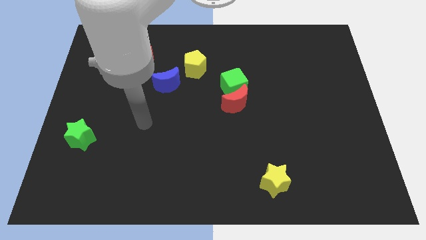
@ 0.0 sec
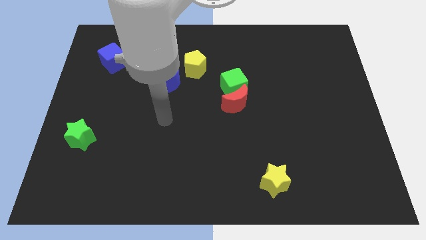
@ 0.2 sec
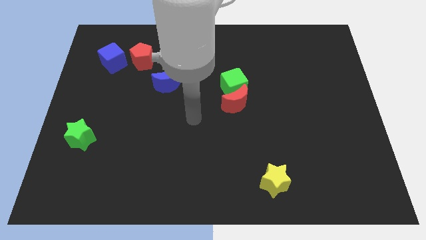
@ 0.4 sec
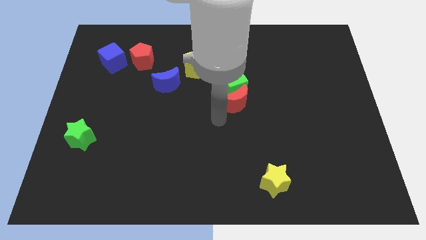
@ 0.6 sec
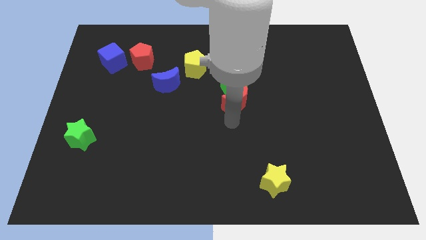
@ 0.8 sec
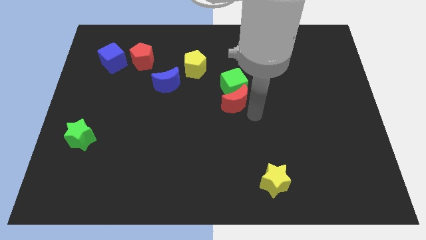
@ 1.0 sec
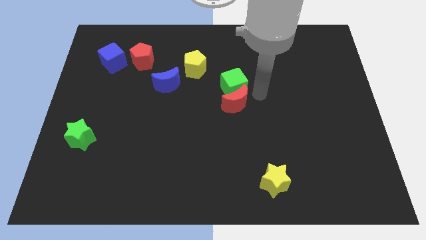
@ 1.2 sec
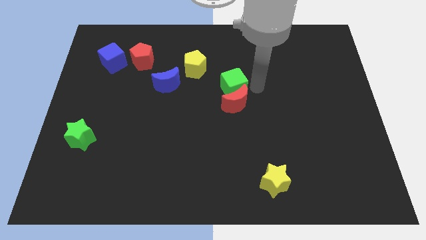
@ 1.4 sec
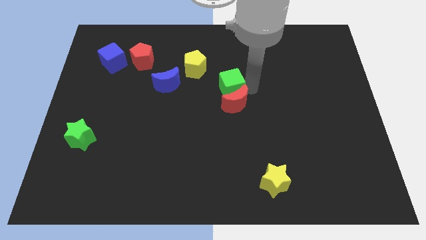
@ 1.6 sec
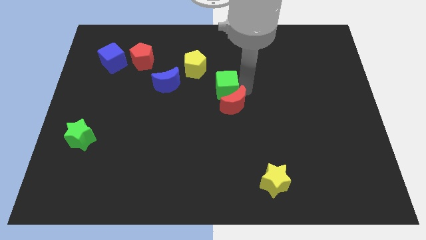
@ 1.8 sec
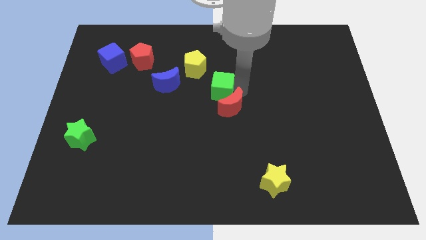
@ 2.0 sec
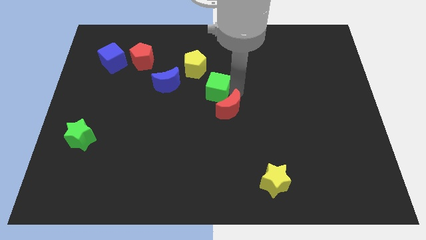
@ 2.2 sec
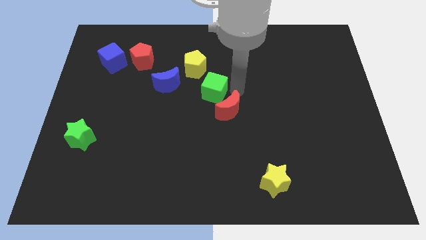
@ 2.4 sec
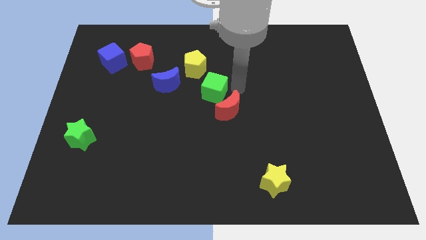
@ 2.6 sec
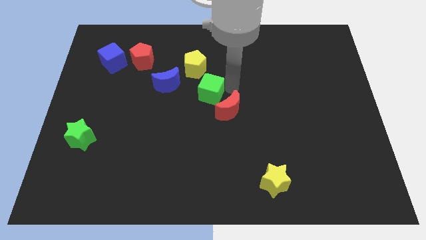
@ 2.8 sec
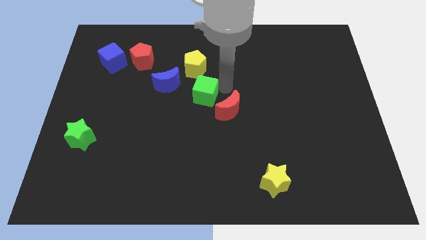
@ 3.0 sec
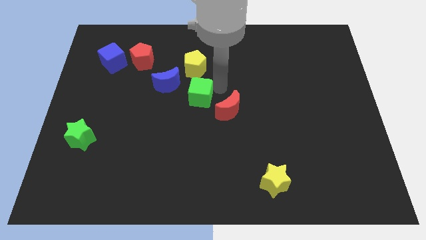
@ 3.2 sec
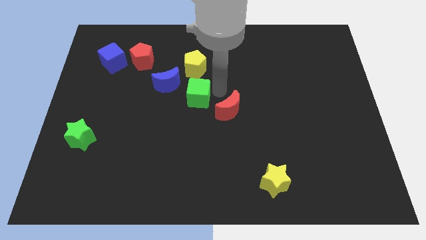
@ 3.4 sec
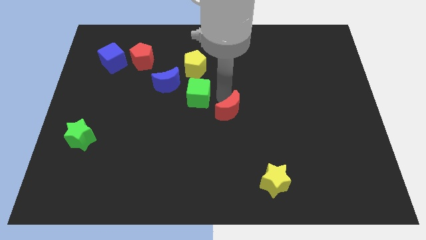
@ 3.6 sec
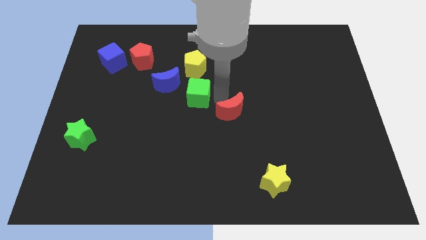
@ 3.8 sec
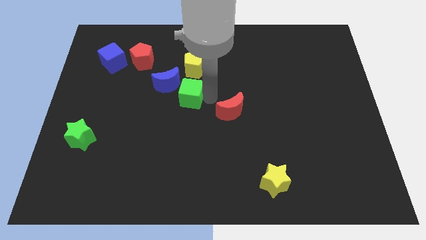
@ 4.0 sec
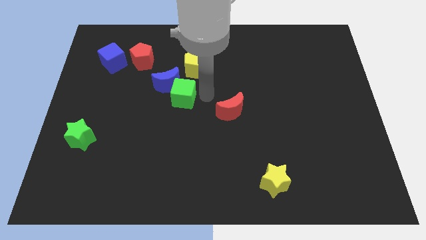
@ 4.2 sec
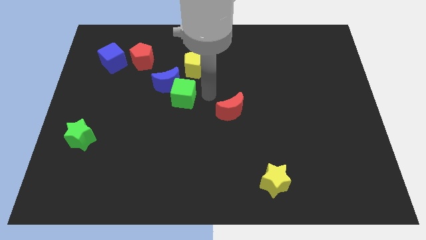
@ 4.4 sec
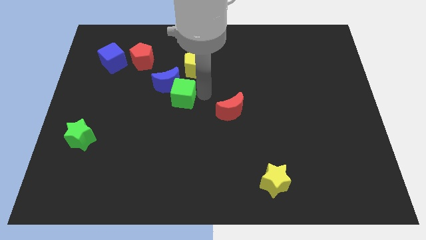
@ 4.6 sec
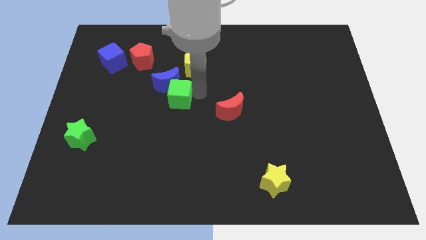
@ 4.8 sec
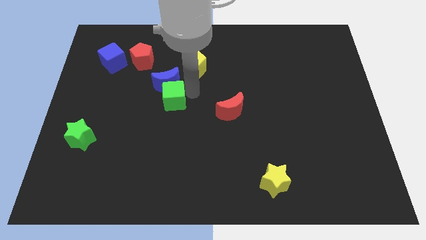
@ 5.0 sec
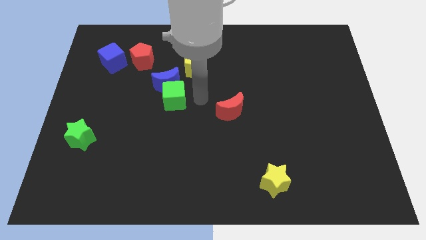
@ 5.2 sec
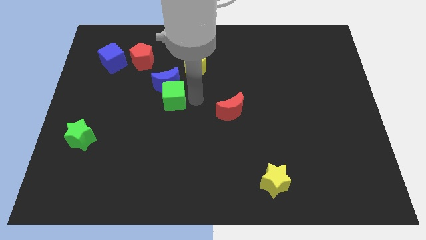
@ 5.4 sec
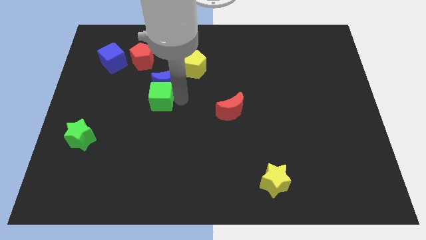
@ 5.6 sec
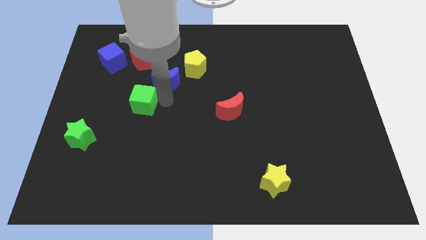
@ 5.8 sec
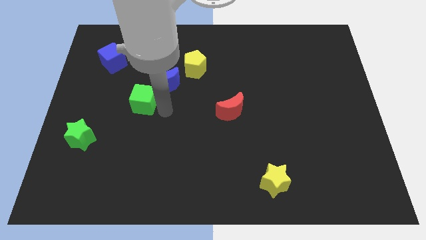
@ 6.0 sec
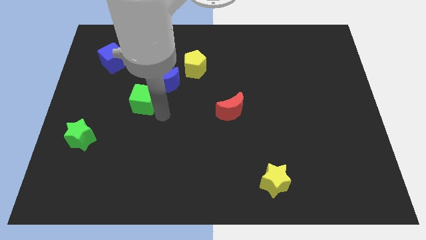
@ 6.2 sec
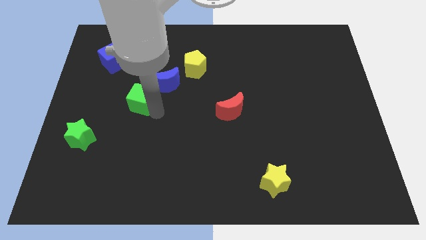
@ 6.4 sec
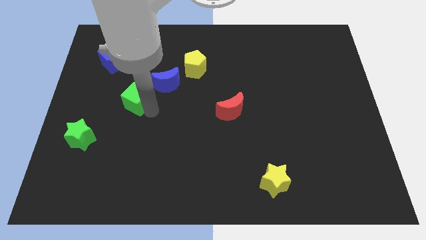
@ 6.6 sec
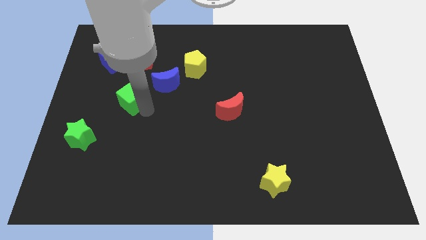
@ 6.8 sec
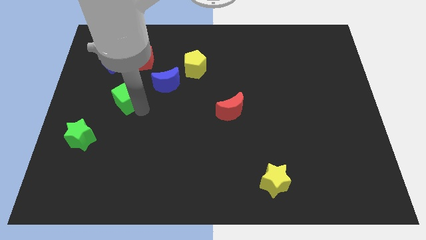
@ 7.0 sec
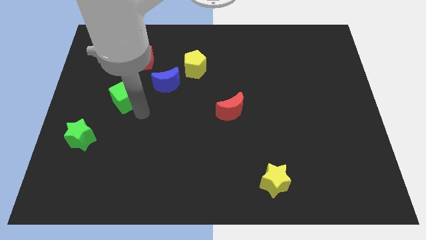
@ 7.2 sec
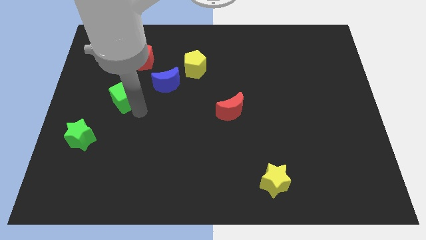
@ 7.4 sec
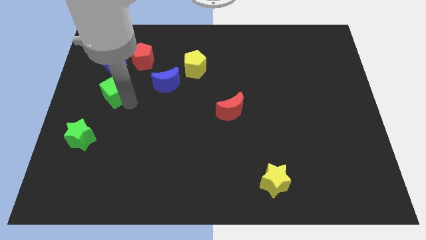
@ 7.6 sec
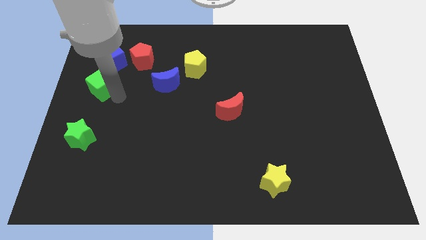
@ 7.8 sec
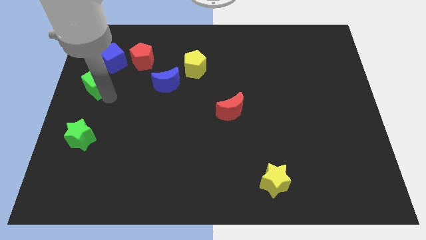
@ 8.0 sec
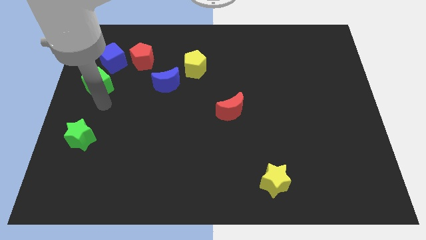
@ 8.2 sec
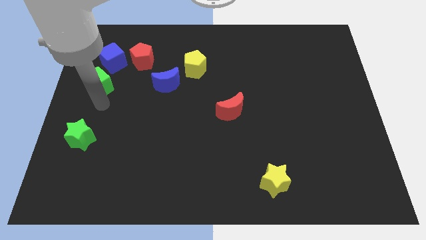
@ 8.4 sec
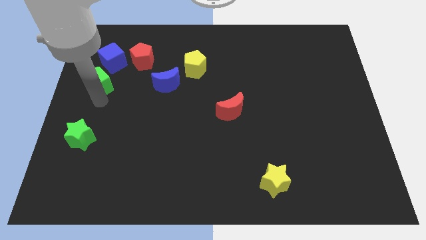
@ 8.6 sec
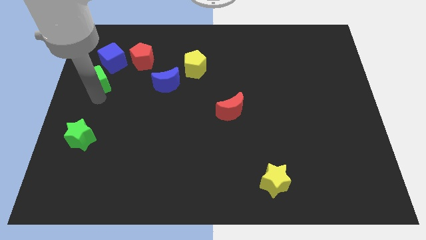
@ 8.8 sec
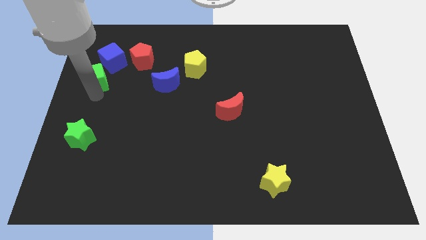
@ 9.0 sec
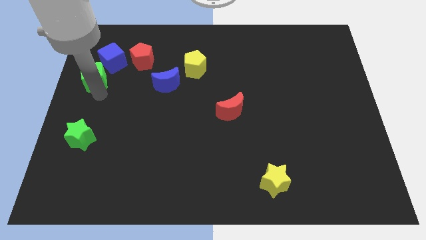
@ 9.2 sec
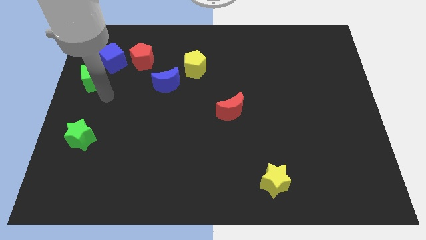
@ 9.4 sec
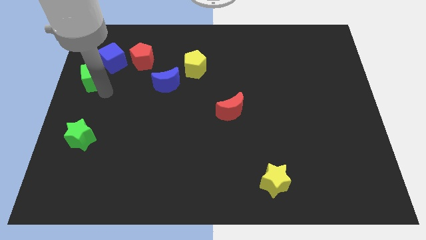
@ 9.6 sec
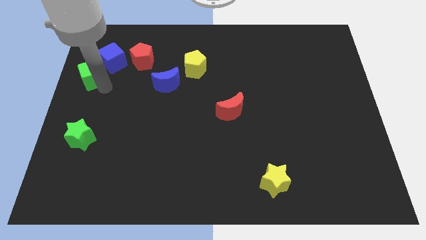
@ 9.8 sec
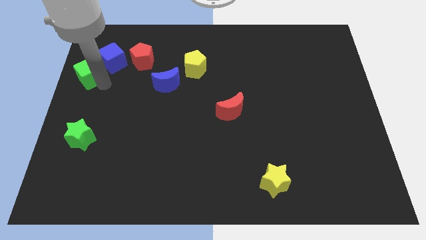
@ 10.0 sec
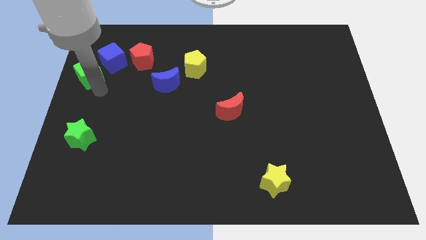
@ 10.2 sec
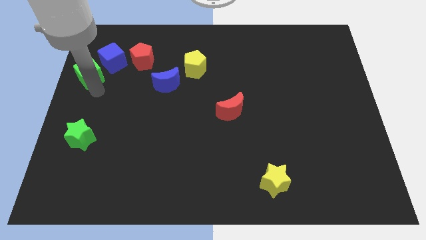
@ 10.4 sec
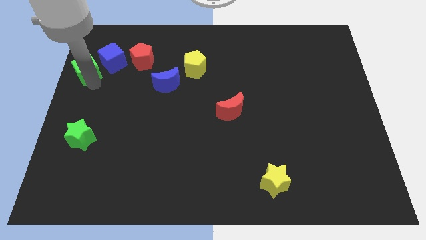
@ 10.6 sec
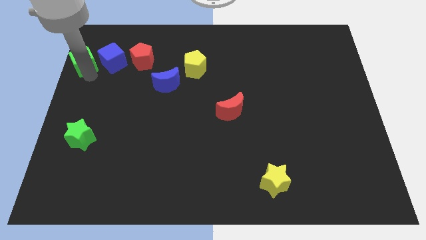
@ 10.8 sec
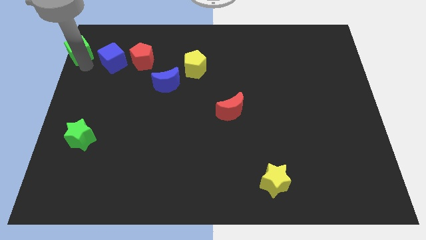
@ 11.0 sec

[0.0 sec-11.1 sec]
slide the green cube to the top left corner
